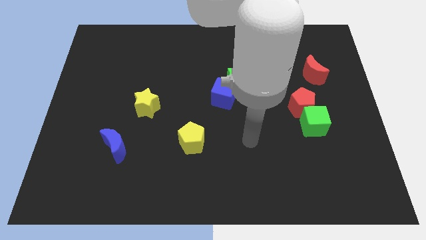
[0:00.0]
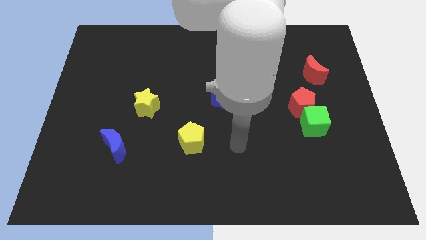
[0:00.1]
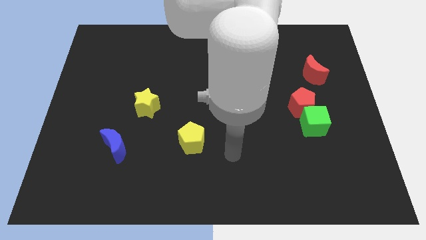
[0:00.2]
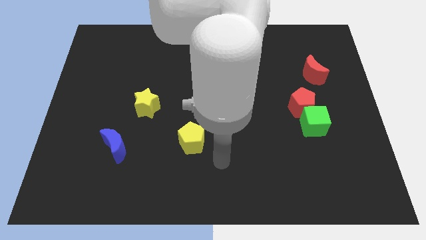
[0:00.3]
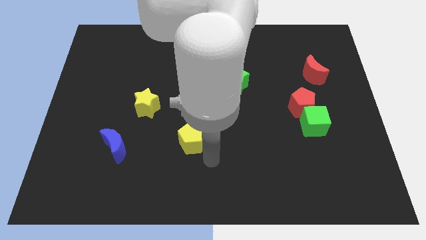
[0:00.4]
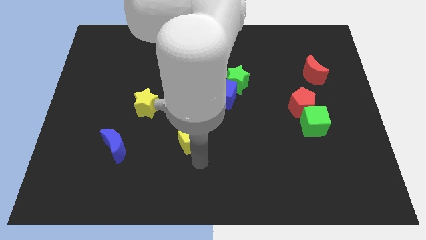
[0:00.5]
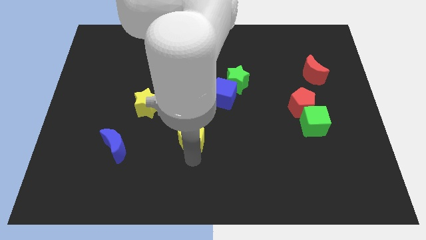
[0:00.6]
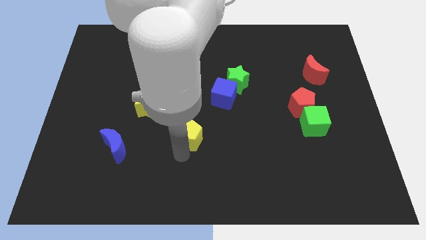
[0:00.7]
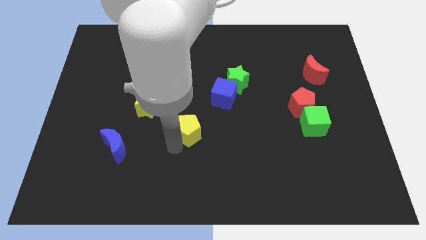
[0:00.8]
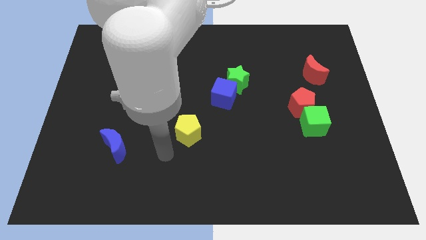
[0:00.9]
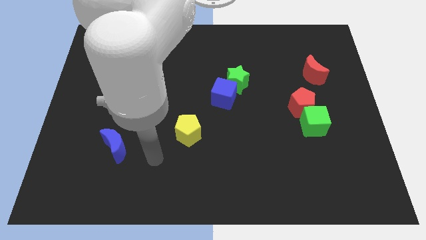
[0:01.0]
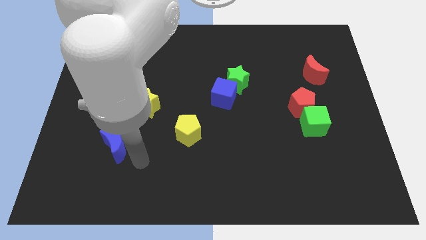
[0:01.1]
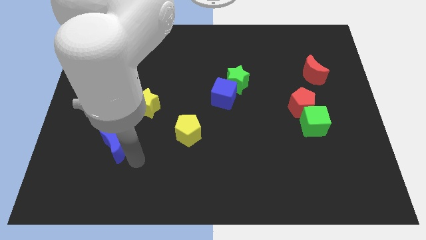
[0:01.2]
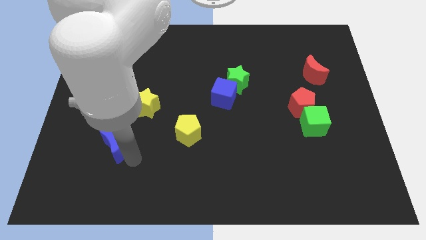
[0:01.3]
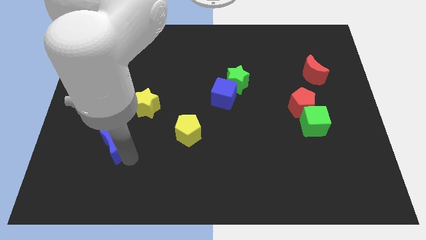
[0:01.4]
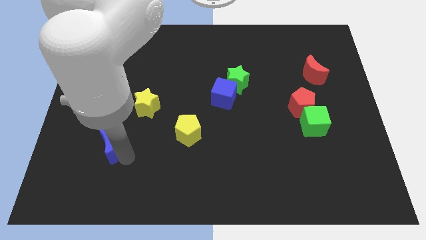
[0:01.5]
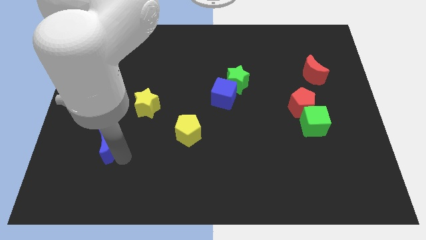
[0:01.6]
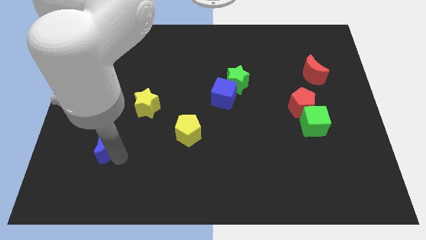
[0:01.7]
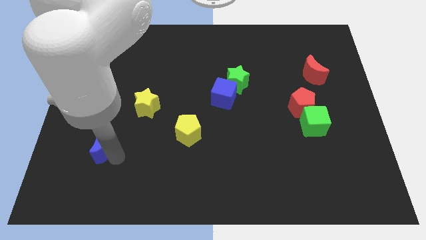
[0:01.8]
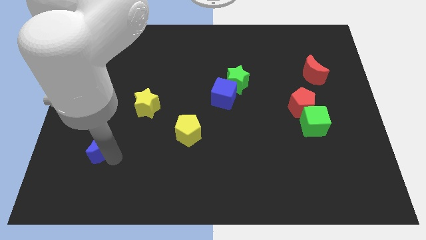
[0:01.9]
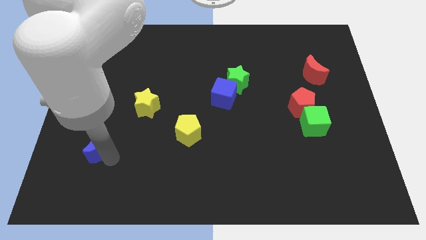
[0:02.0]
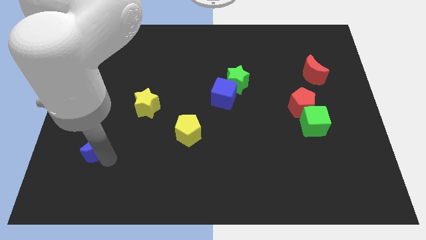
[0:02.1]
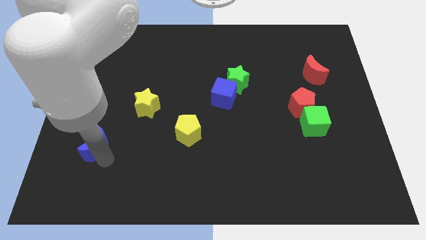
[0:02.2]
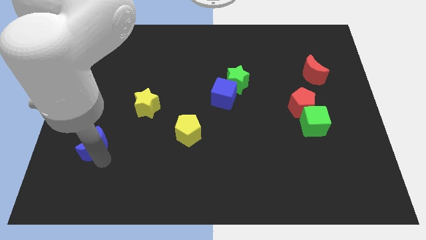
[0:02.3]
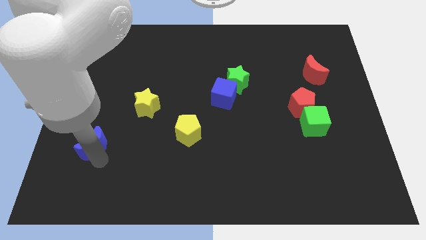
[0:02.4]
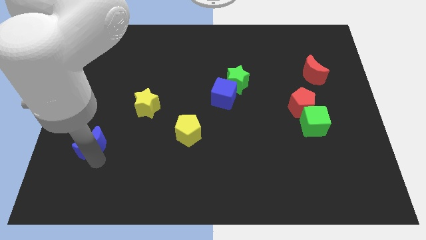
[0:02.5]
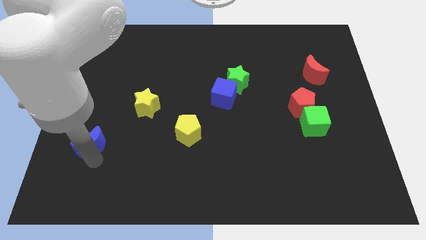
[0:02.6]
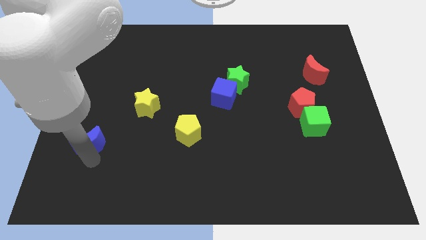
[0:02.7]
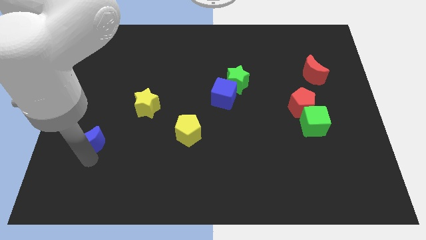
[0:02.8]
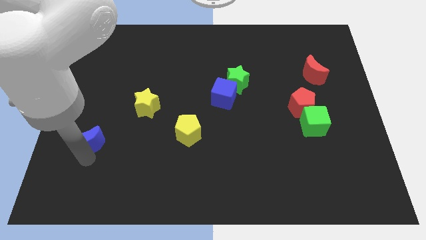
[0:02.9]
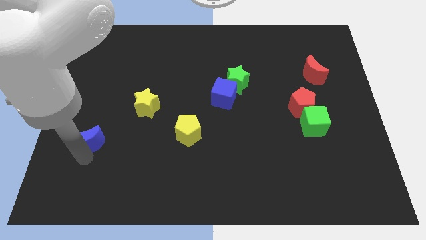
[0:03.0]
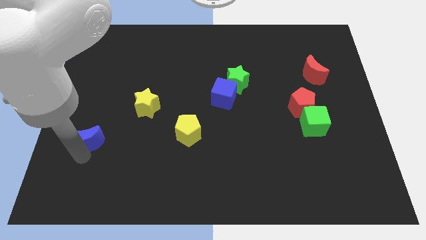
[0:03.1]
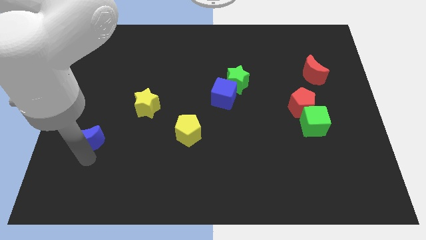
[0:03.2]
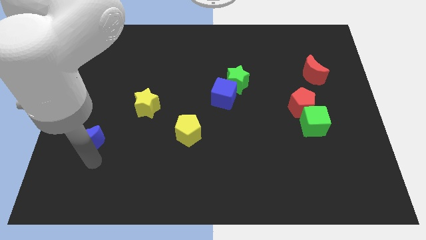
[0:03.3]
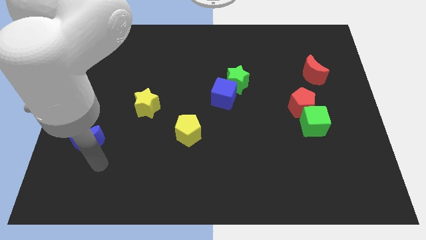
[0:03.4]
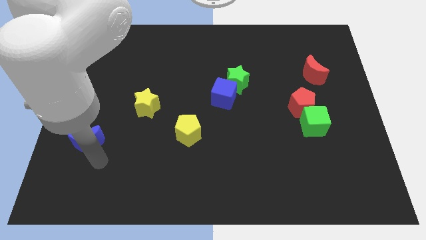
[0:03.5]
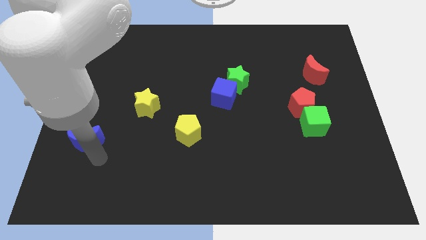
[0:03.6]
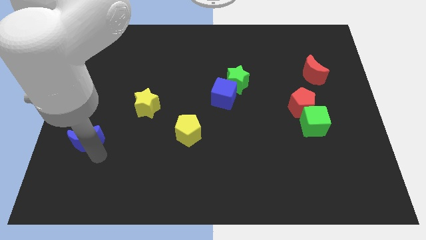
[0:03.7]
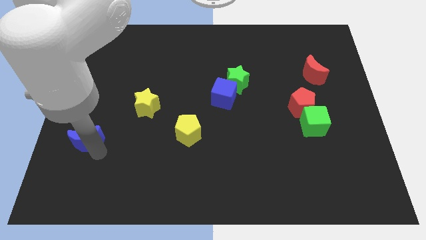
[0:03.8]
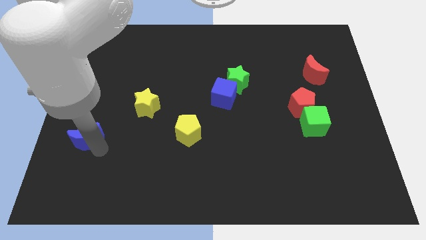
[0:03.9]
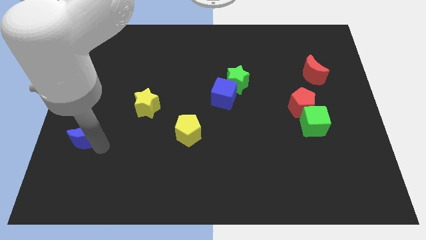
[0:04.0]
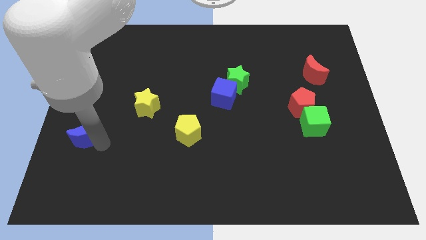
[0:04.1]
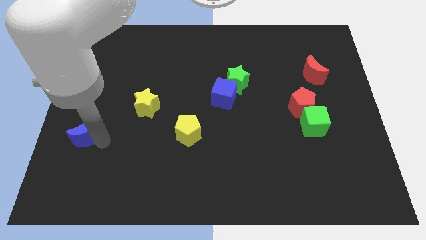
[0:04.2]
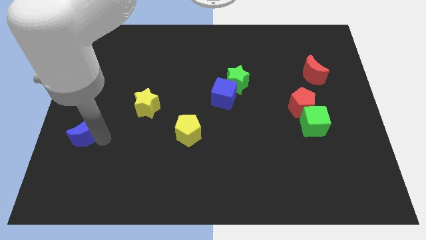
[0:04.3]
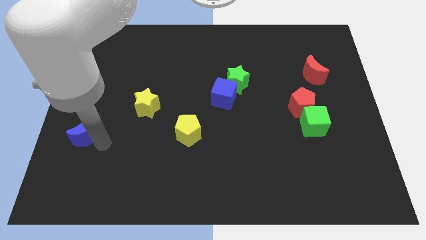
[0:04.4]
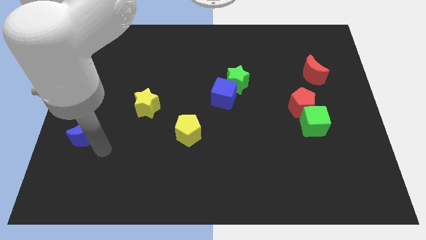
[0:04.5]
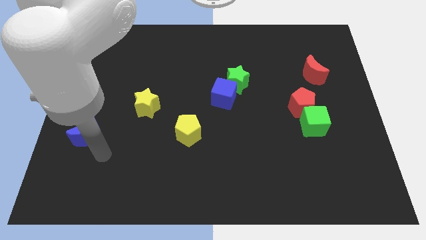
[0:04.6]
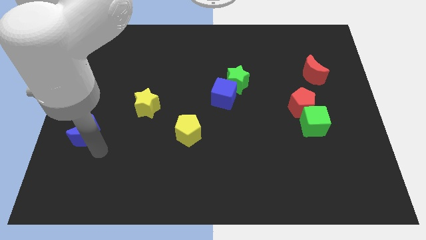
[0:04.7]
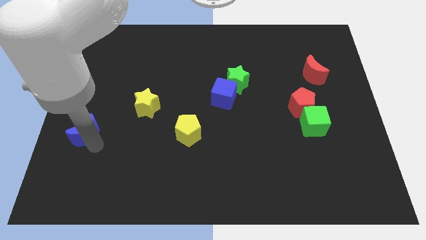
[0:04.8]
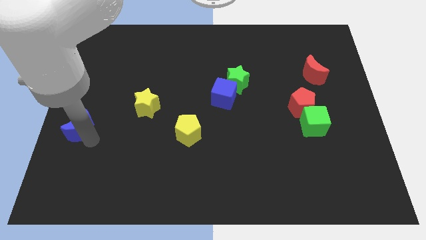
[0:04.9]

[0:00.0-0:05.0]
slide the blue moon to the left side of the board

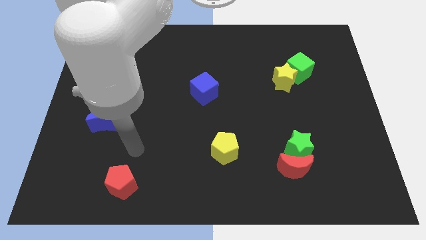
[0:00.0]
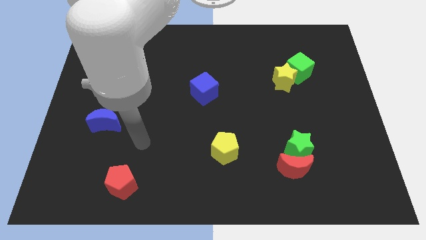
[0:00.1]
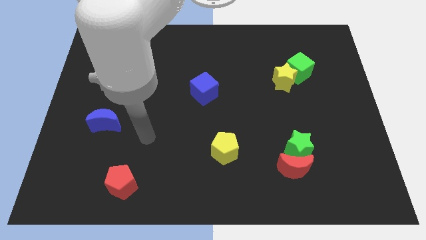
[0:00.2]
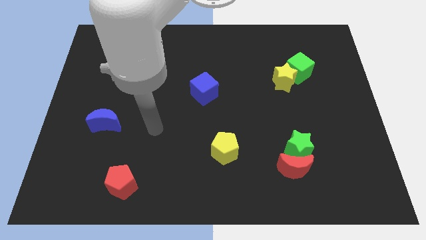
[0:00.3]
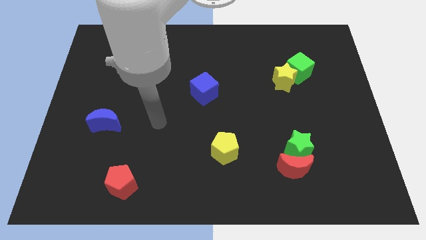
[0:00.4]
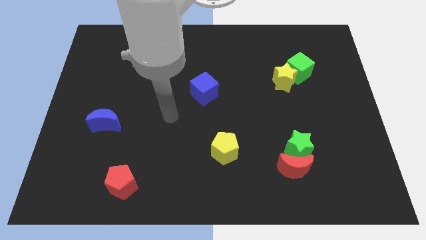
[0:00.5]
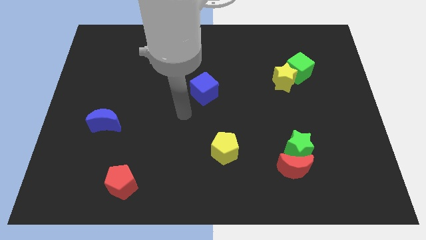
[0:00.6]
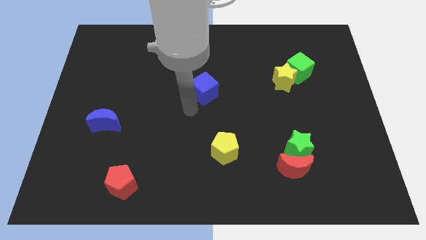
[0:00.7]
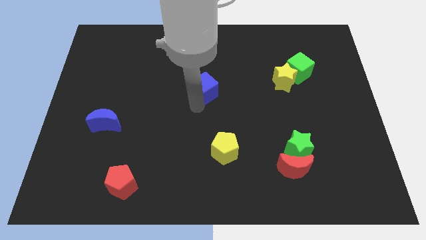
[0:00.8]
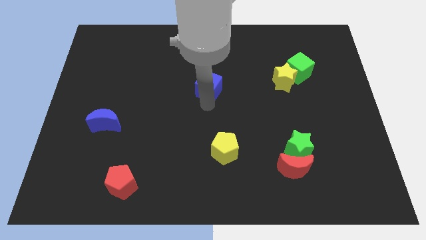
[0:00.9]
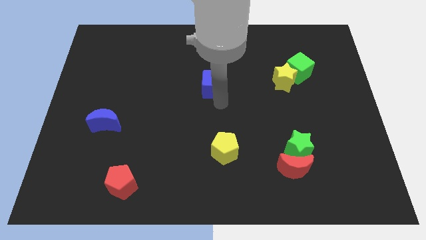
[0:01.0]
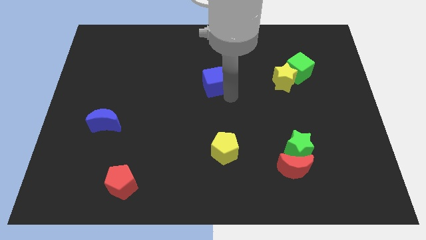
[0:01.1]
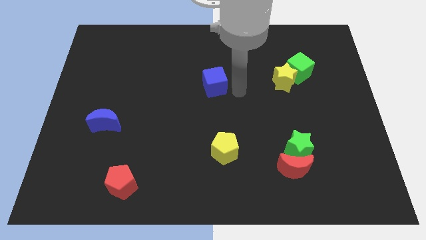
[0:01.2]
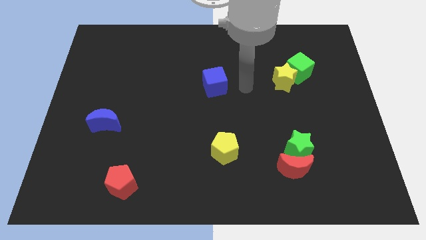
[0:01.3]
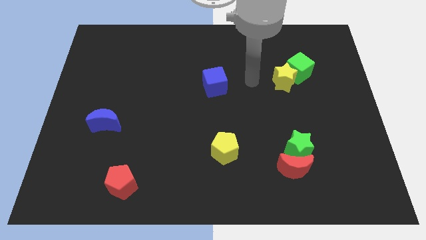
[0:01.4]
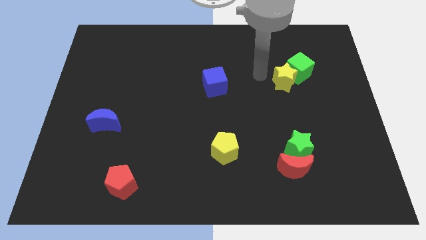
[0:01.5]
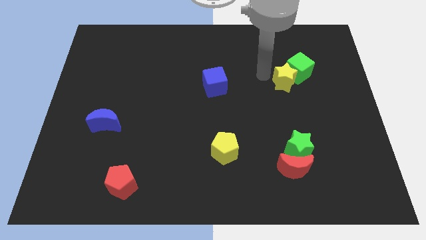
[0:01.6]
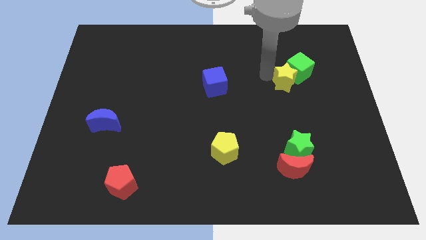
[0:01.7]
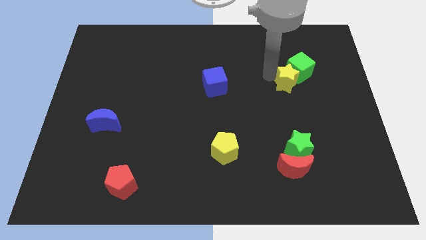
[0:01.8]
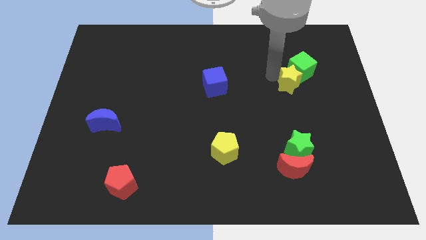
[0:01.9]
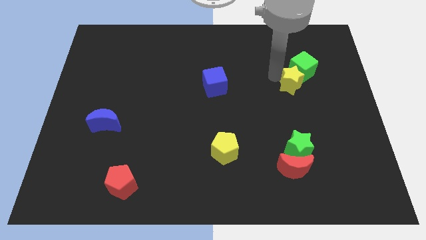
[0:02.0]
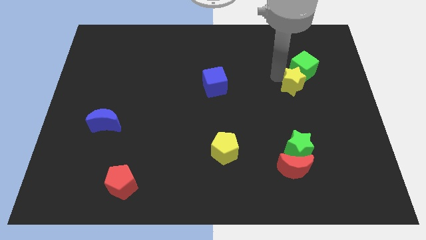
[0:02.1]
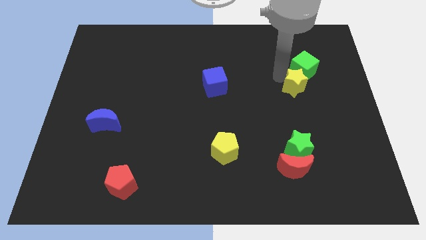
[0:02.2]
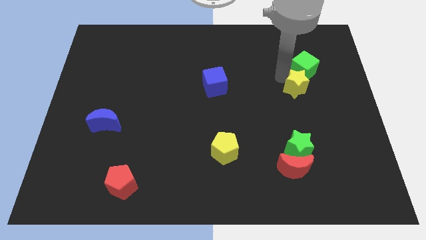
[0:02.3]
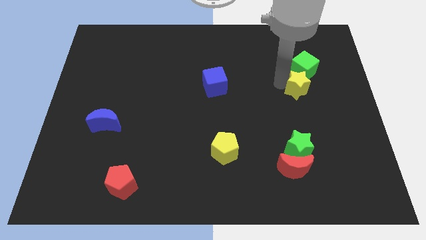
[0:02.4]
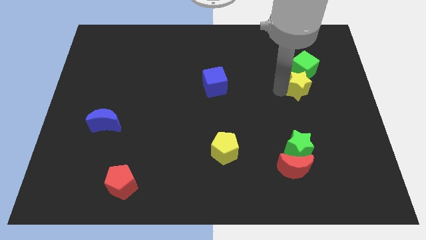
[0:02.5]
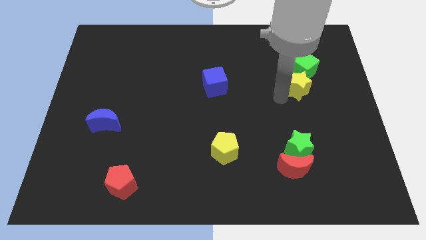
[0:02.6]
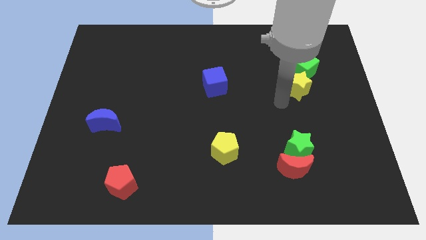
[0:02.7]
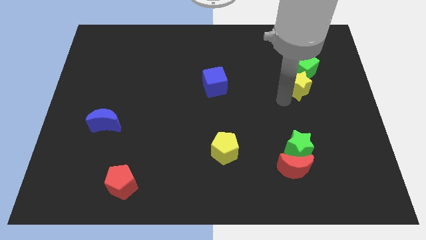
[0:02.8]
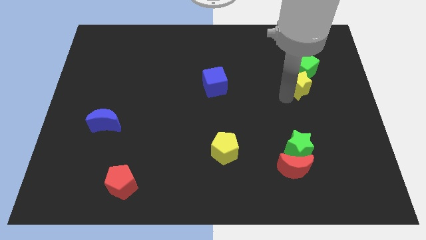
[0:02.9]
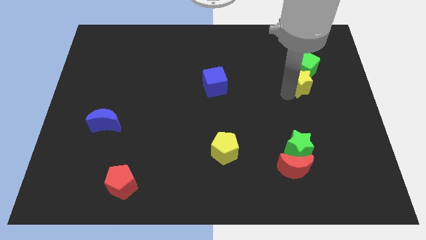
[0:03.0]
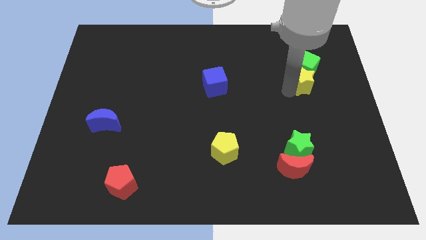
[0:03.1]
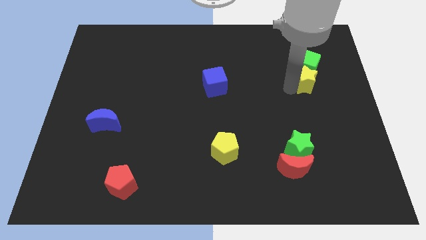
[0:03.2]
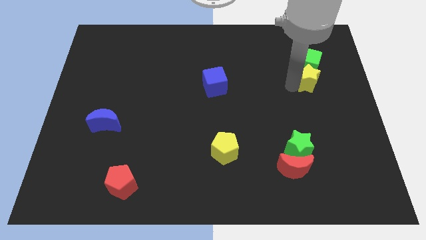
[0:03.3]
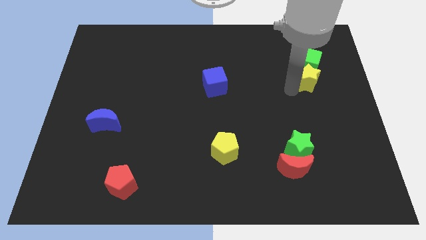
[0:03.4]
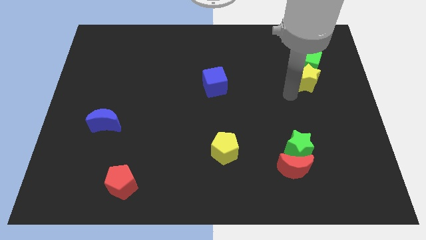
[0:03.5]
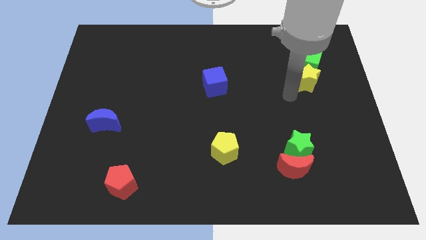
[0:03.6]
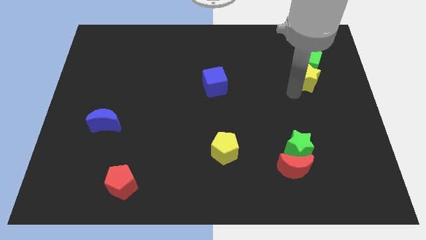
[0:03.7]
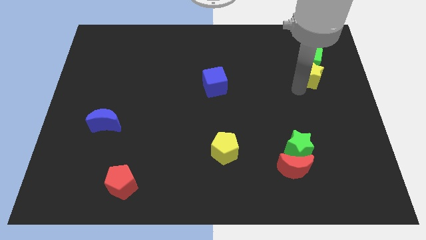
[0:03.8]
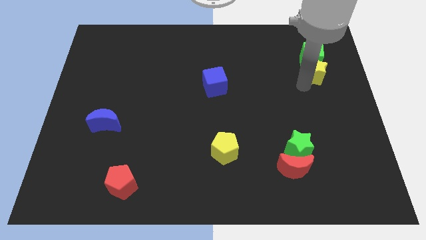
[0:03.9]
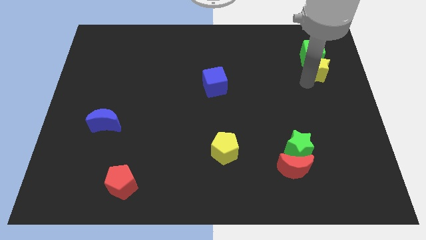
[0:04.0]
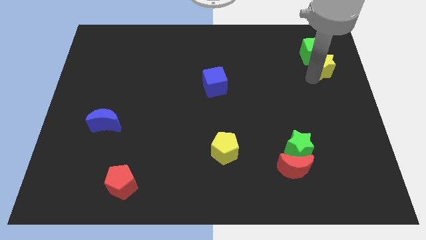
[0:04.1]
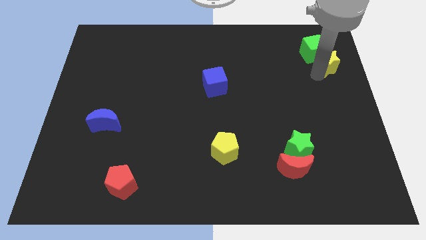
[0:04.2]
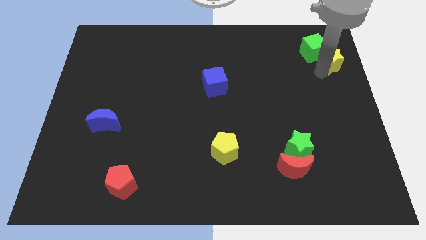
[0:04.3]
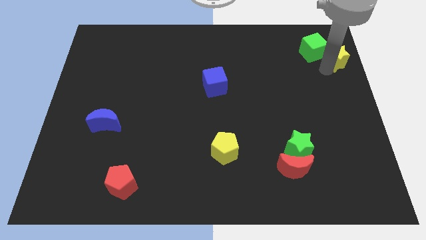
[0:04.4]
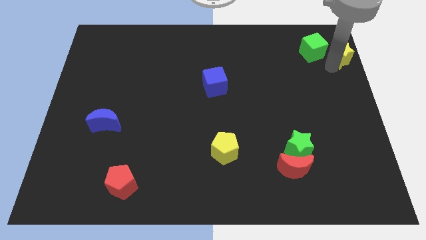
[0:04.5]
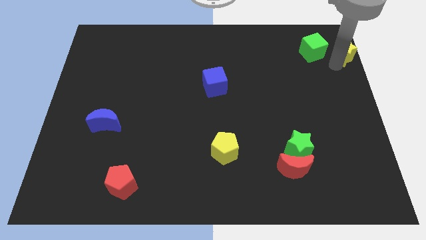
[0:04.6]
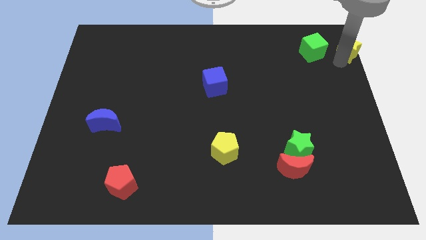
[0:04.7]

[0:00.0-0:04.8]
slide the yellow star to the top right of the board
